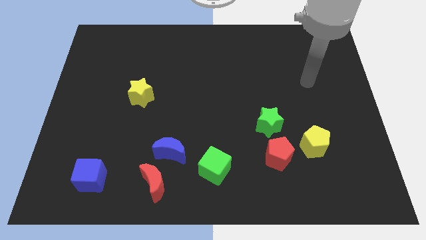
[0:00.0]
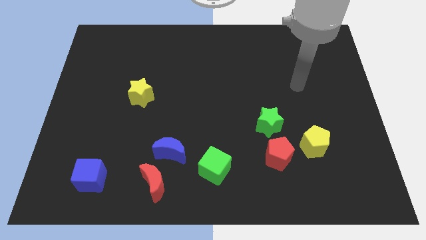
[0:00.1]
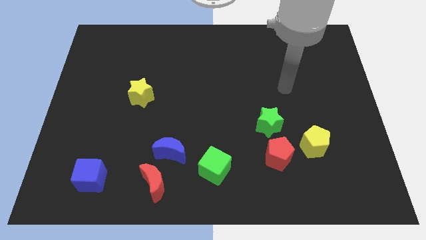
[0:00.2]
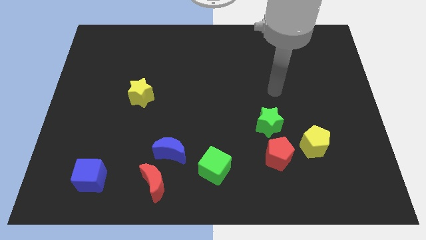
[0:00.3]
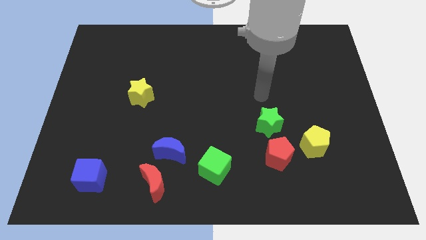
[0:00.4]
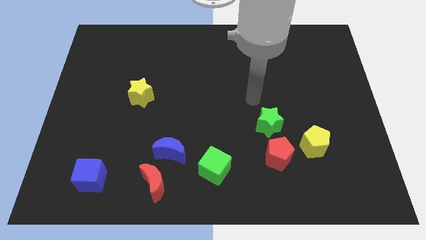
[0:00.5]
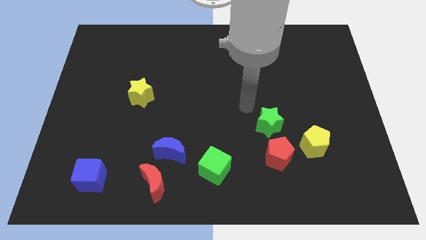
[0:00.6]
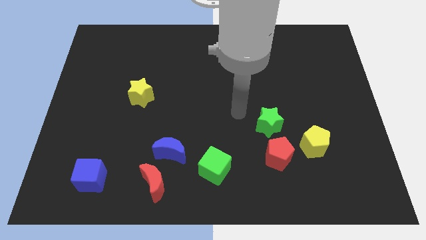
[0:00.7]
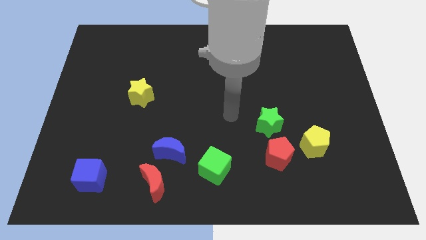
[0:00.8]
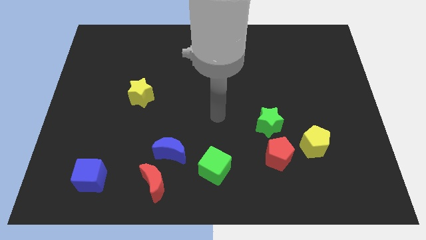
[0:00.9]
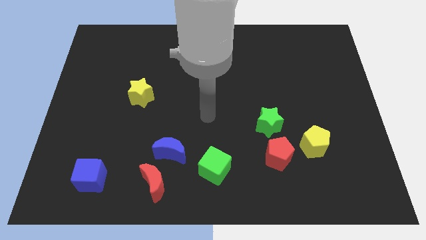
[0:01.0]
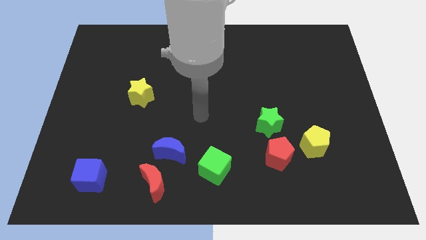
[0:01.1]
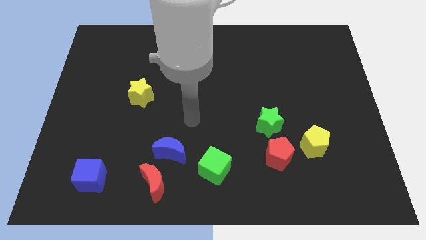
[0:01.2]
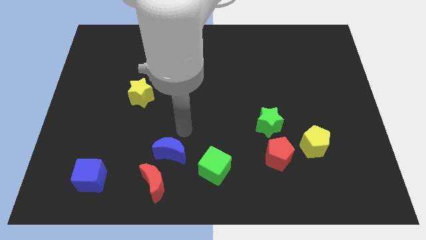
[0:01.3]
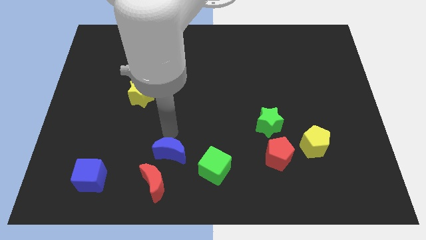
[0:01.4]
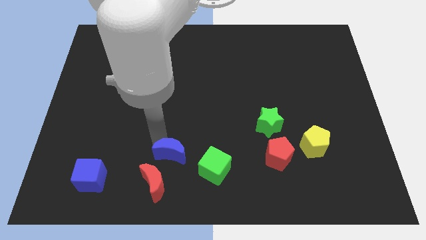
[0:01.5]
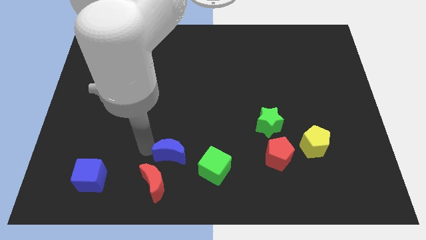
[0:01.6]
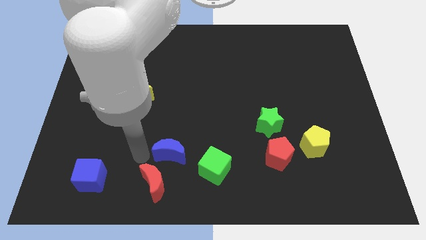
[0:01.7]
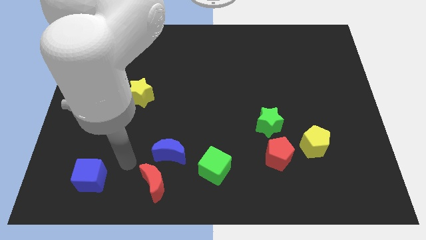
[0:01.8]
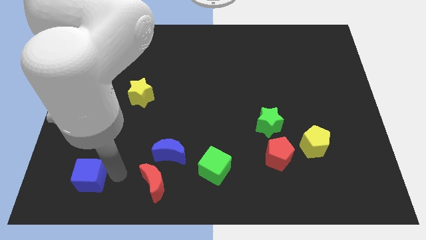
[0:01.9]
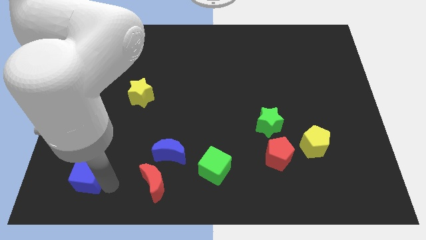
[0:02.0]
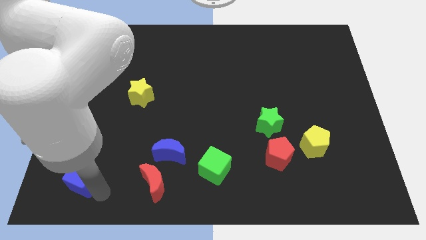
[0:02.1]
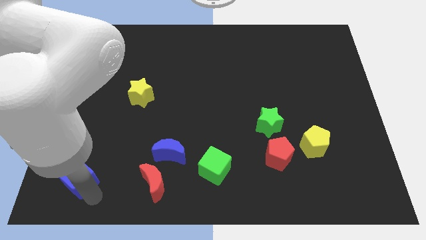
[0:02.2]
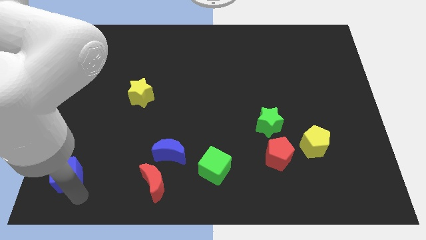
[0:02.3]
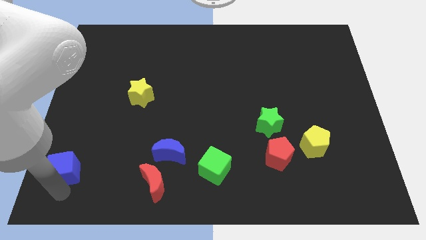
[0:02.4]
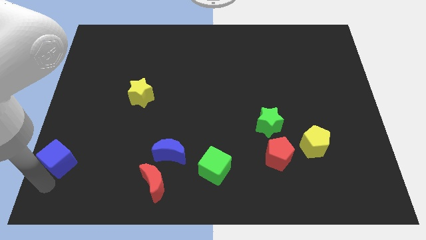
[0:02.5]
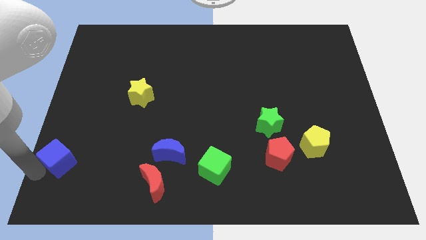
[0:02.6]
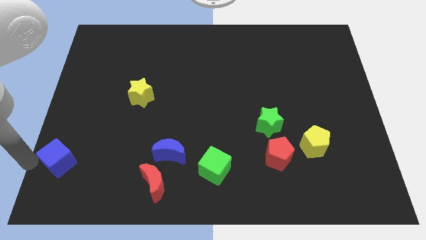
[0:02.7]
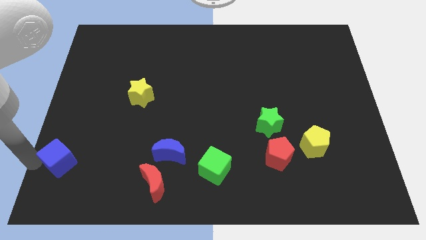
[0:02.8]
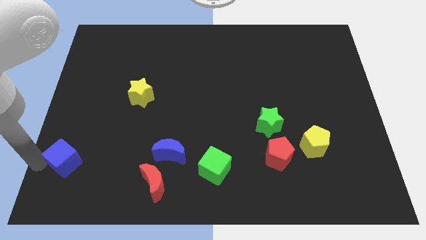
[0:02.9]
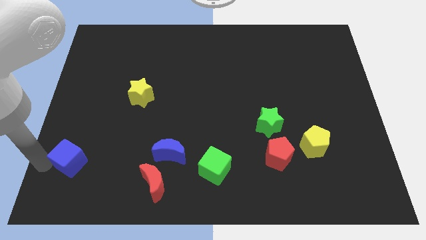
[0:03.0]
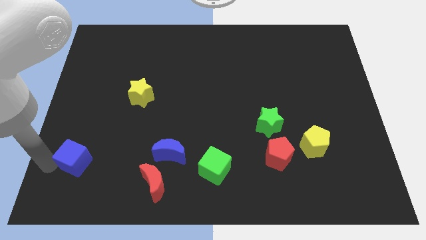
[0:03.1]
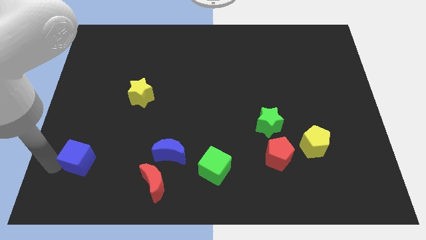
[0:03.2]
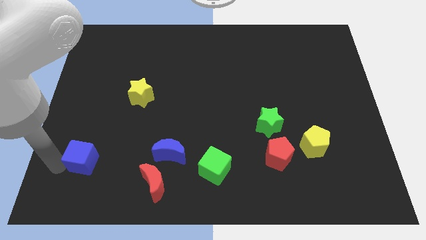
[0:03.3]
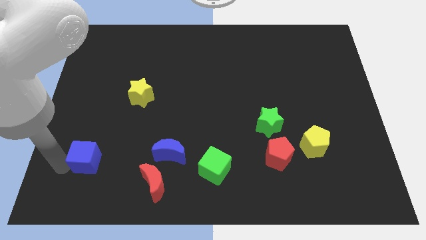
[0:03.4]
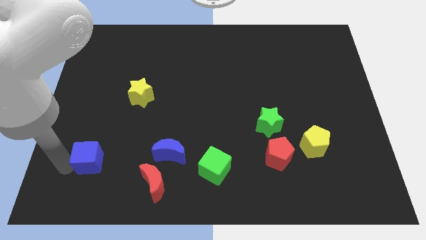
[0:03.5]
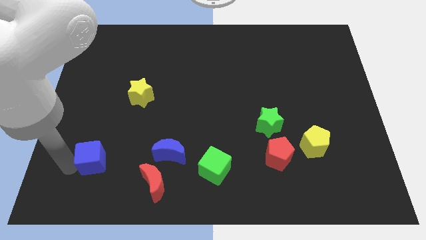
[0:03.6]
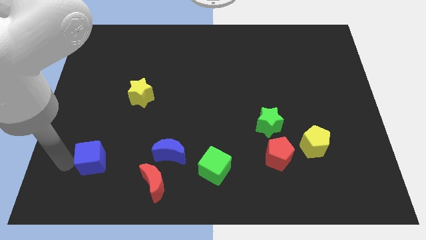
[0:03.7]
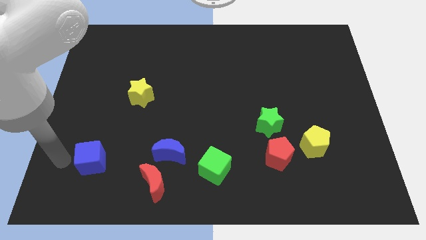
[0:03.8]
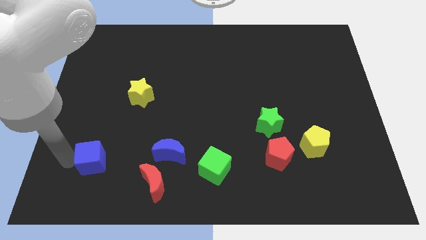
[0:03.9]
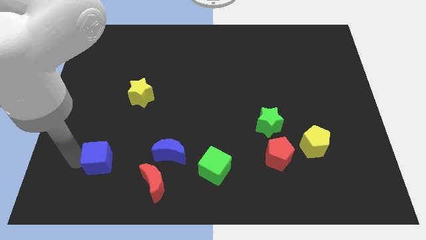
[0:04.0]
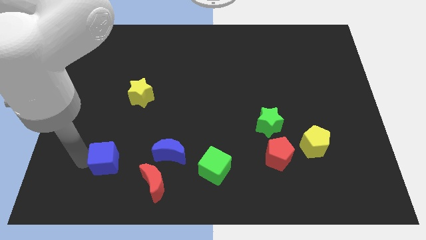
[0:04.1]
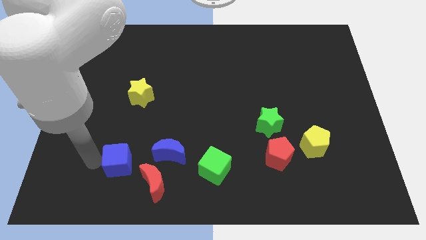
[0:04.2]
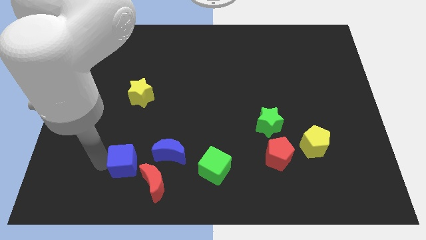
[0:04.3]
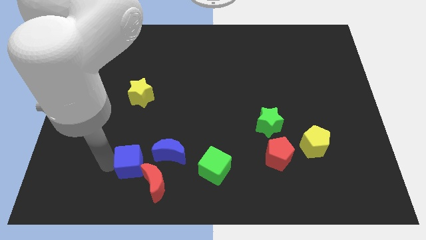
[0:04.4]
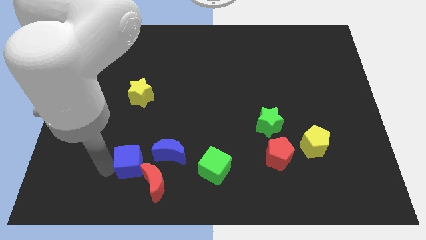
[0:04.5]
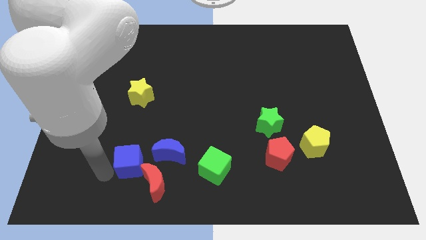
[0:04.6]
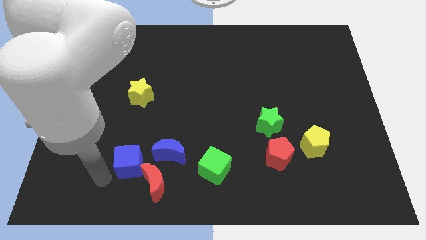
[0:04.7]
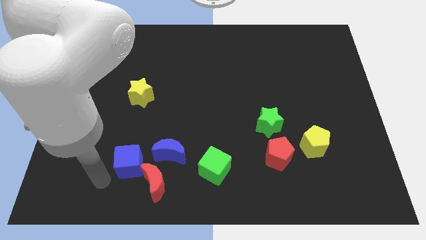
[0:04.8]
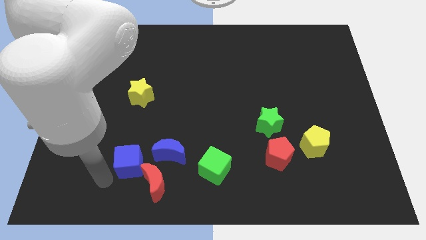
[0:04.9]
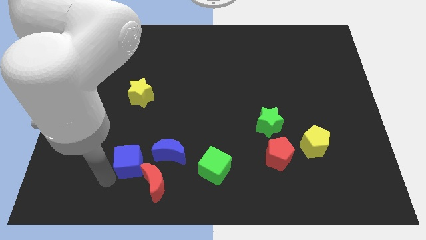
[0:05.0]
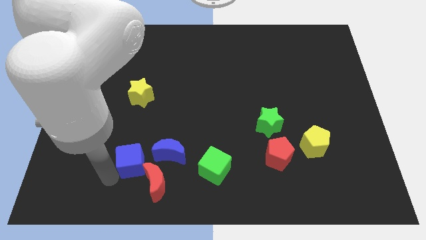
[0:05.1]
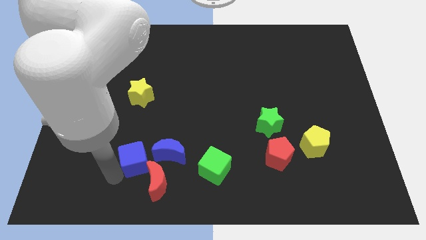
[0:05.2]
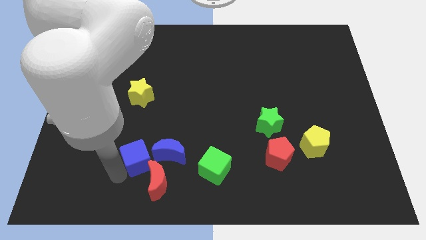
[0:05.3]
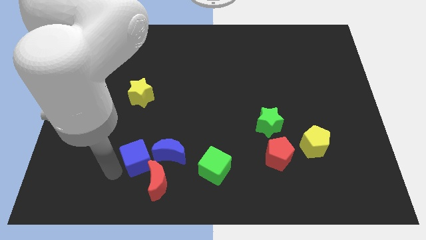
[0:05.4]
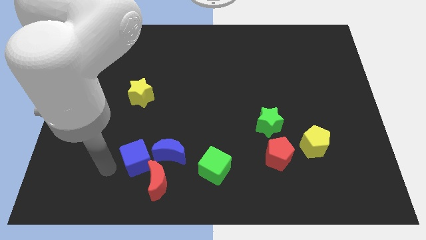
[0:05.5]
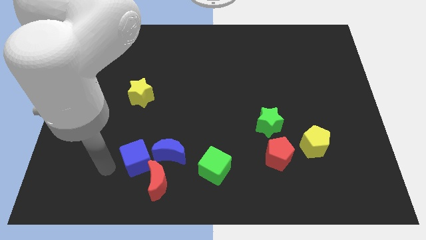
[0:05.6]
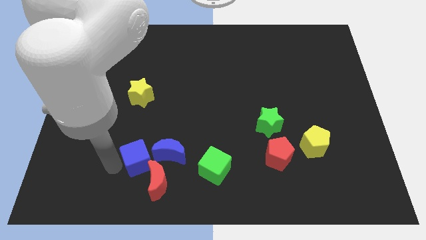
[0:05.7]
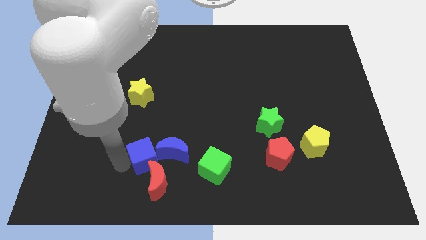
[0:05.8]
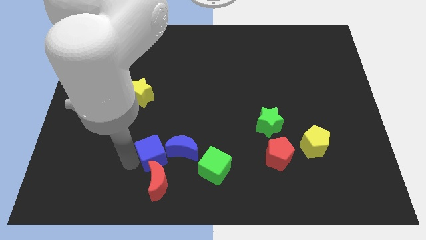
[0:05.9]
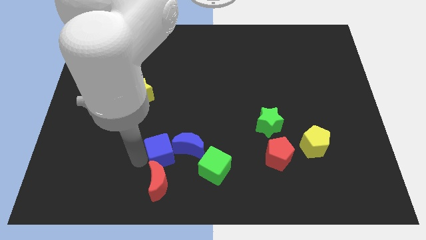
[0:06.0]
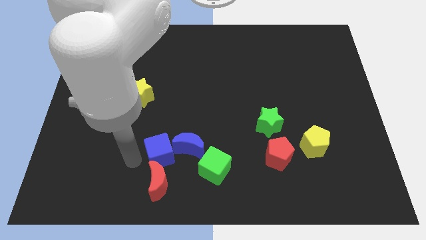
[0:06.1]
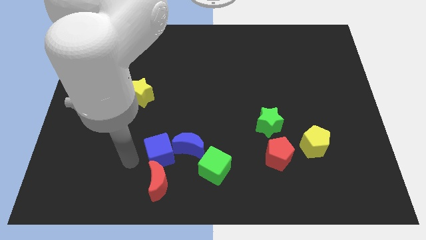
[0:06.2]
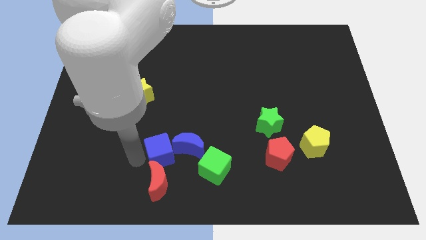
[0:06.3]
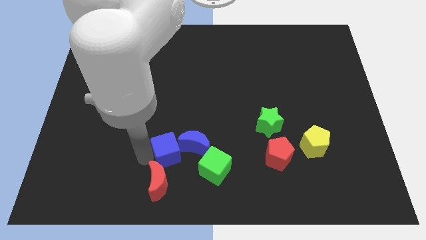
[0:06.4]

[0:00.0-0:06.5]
push the blue cube towards the blue moon

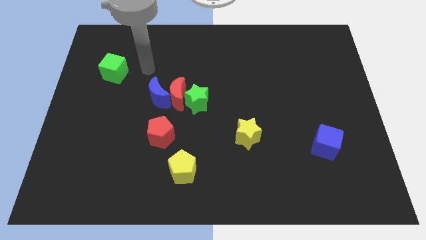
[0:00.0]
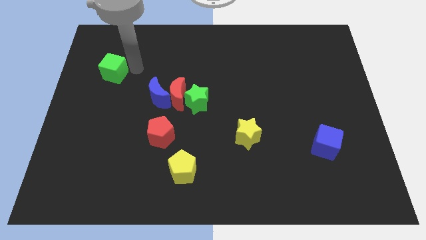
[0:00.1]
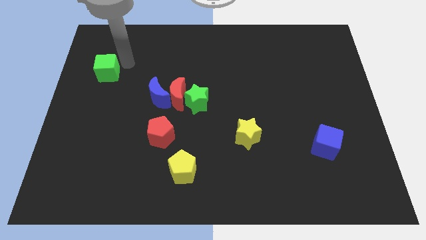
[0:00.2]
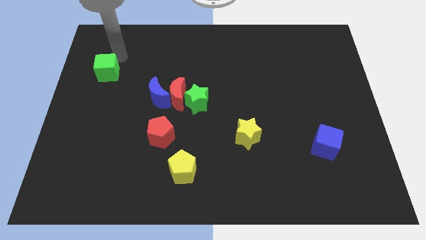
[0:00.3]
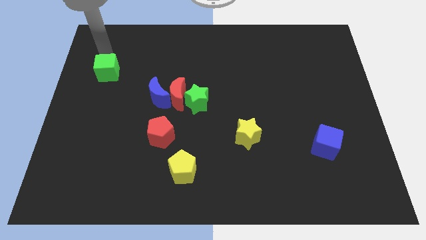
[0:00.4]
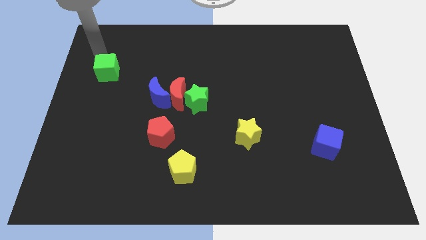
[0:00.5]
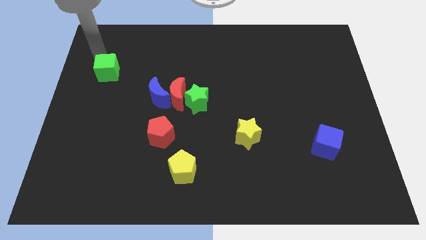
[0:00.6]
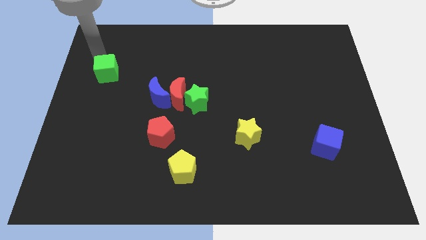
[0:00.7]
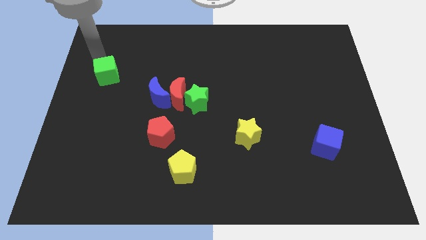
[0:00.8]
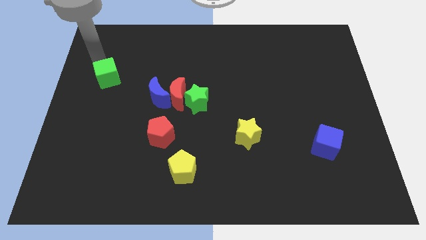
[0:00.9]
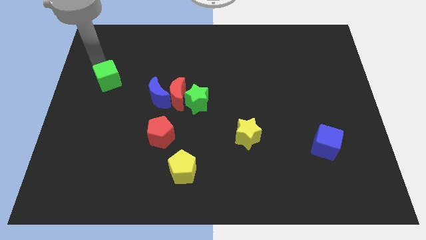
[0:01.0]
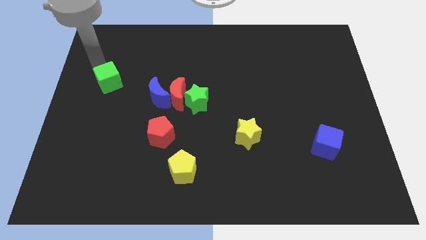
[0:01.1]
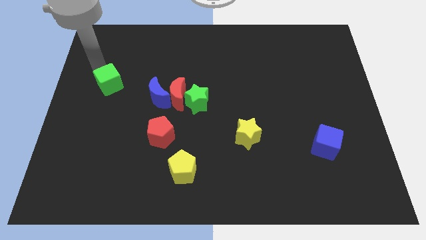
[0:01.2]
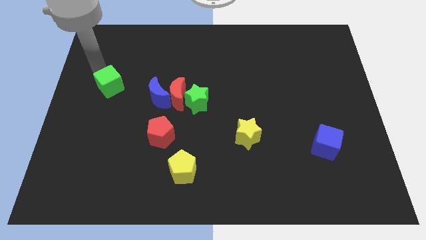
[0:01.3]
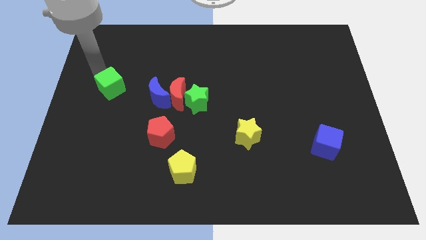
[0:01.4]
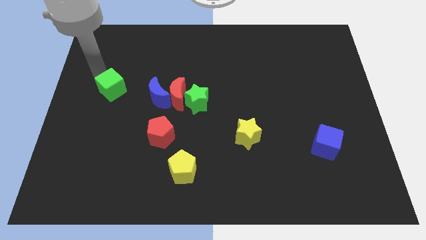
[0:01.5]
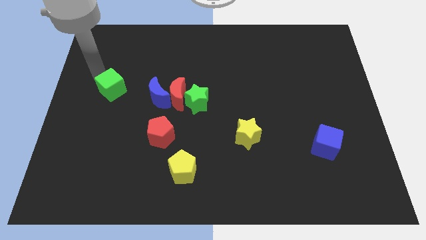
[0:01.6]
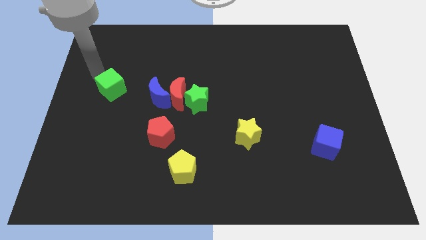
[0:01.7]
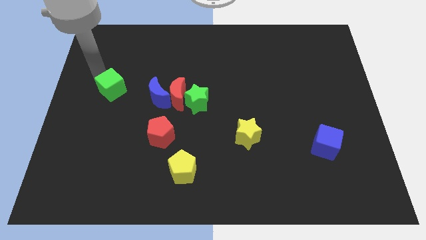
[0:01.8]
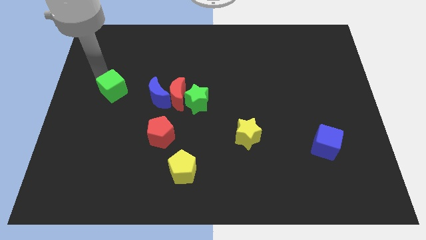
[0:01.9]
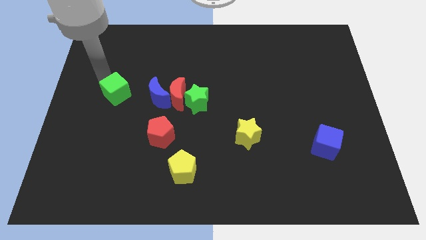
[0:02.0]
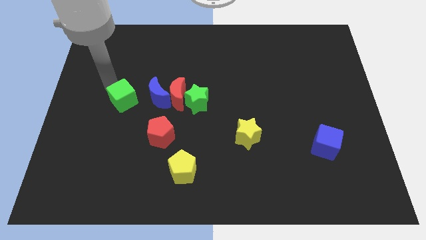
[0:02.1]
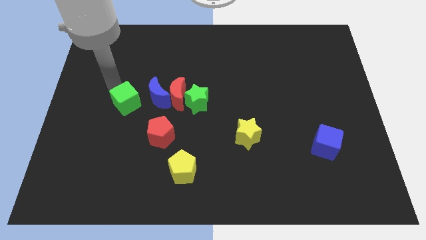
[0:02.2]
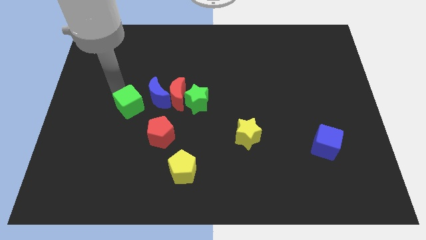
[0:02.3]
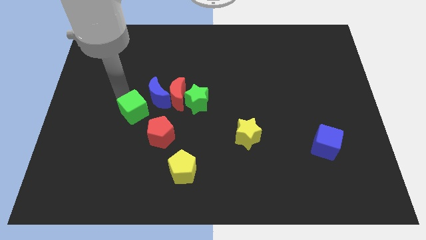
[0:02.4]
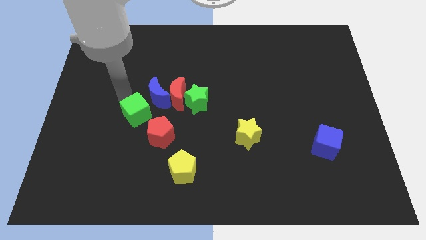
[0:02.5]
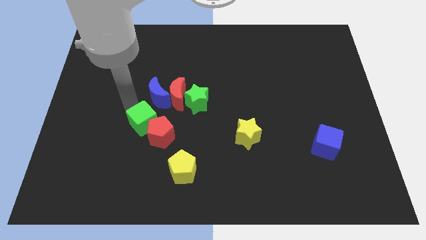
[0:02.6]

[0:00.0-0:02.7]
put the green cube towards the red pentagon
